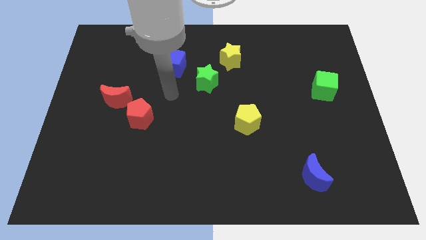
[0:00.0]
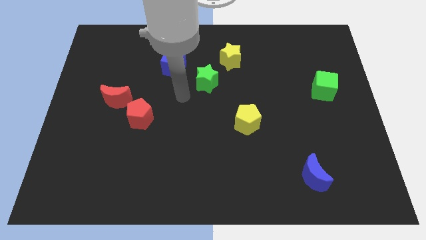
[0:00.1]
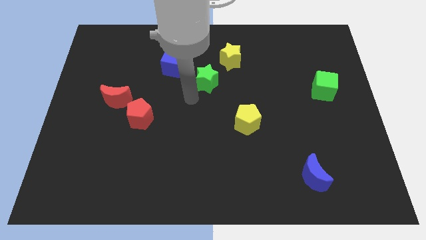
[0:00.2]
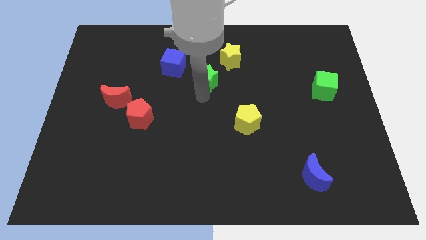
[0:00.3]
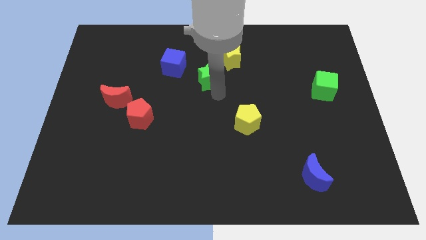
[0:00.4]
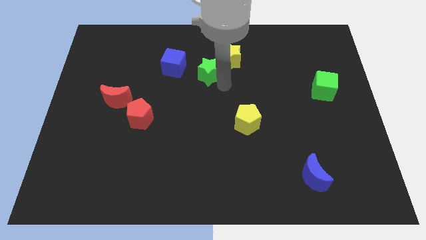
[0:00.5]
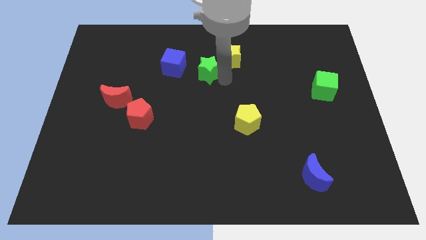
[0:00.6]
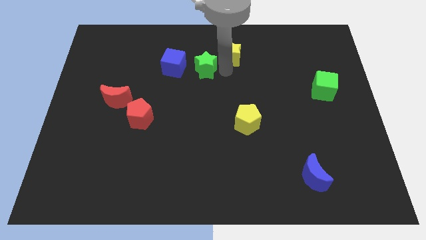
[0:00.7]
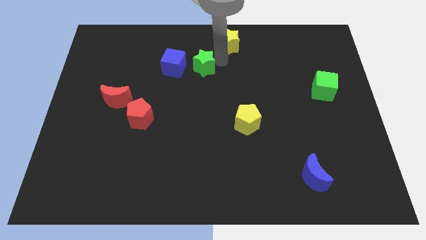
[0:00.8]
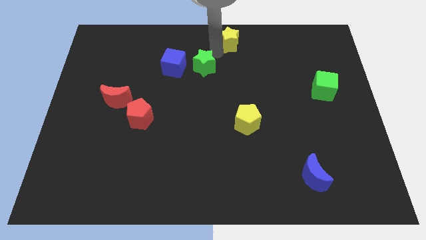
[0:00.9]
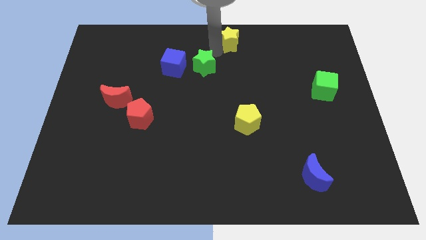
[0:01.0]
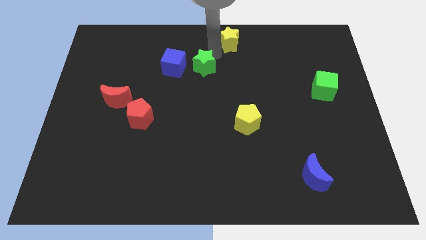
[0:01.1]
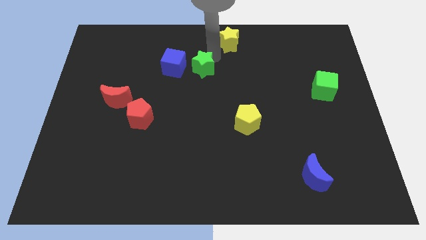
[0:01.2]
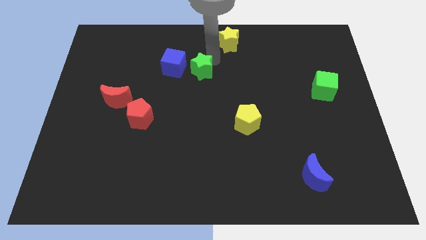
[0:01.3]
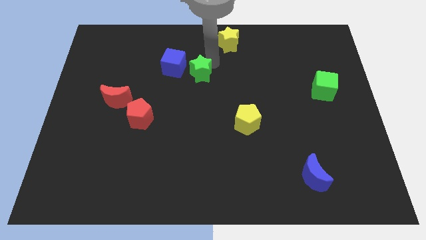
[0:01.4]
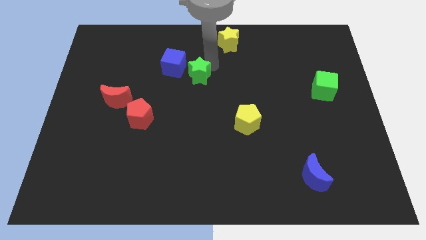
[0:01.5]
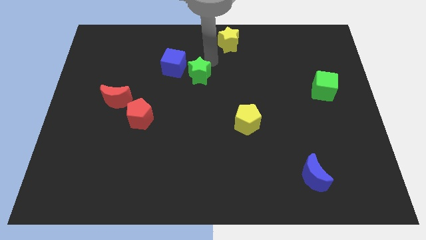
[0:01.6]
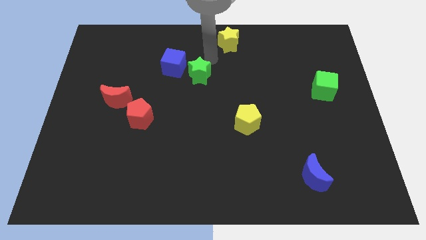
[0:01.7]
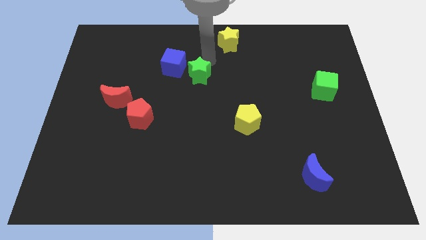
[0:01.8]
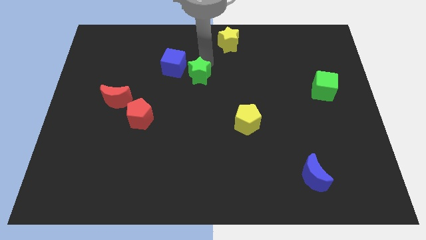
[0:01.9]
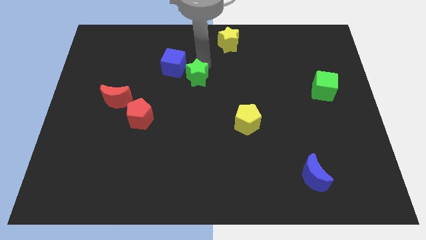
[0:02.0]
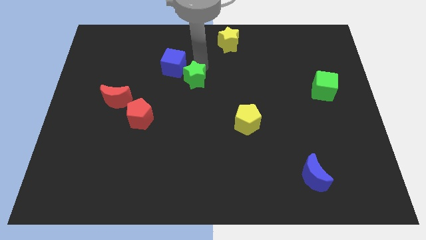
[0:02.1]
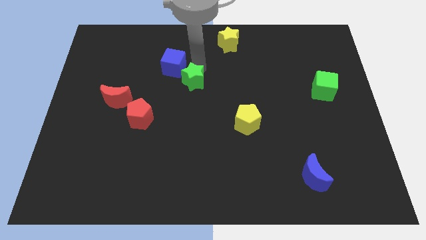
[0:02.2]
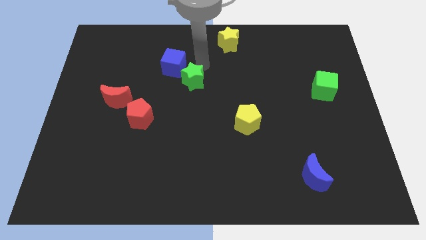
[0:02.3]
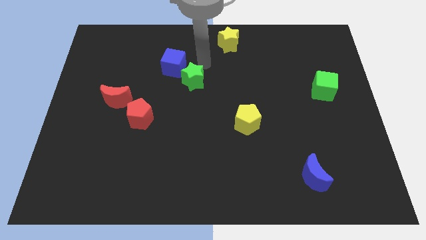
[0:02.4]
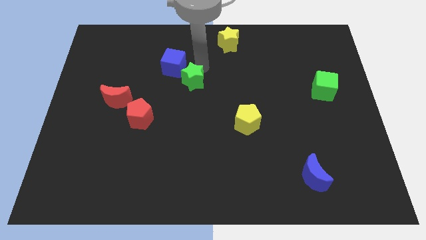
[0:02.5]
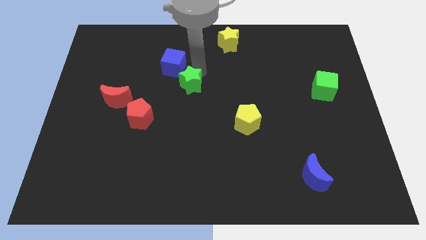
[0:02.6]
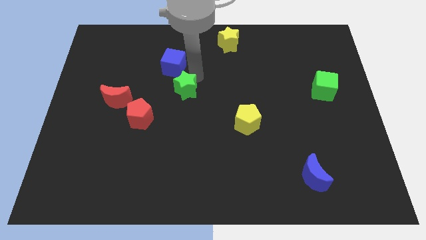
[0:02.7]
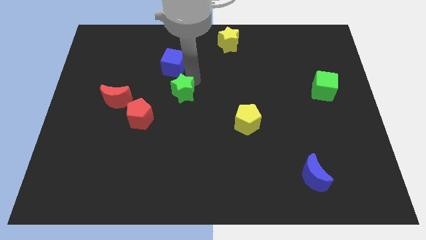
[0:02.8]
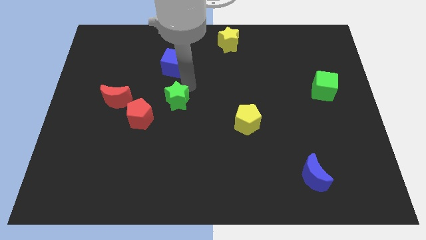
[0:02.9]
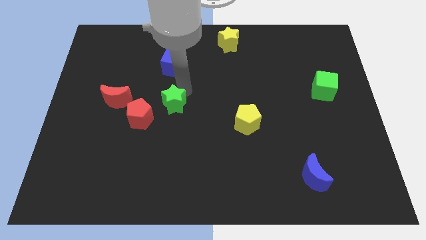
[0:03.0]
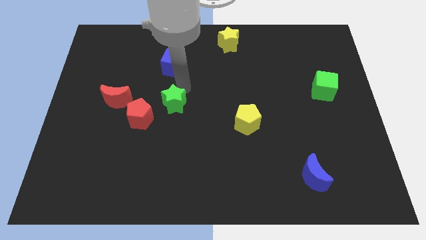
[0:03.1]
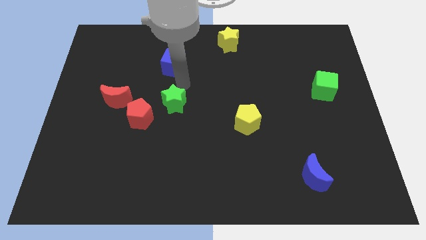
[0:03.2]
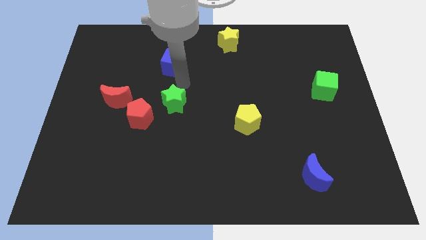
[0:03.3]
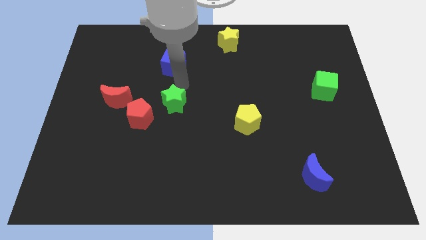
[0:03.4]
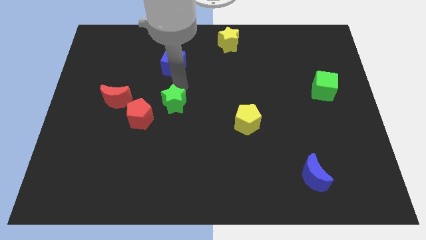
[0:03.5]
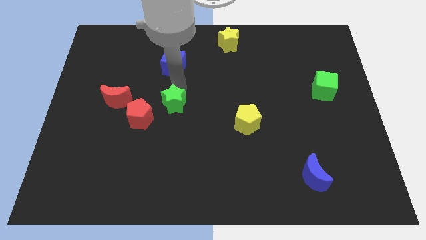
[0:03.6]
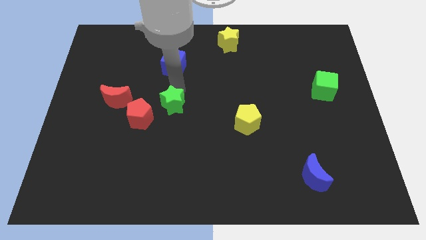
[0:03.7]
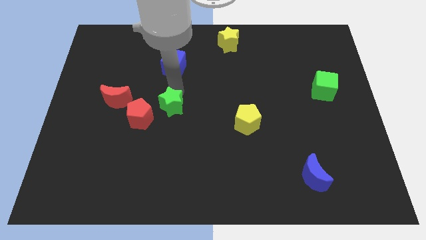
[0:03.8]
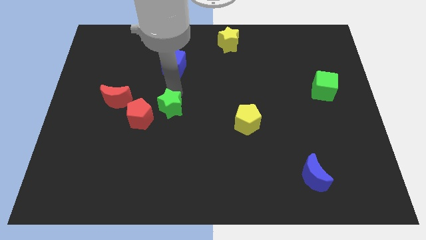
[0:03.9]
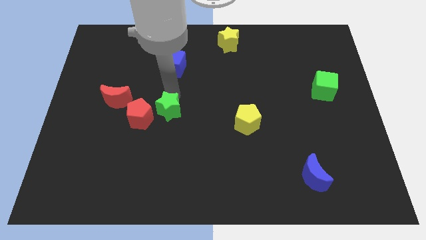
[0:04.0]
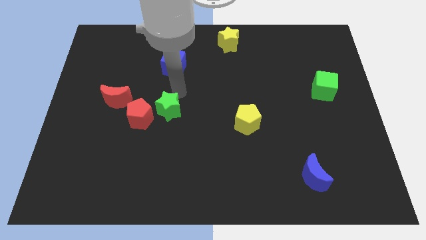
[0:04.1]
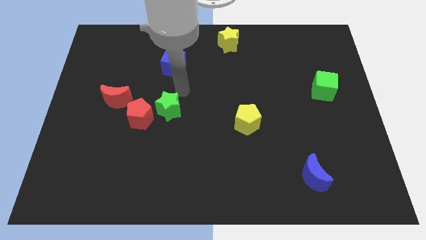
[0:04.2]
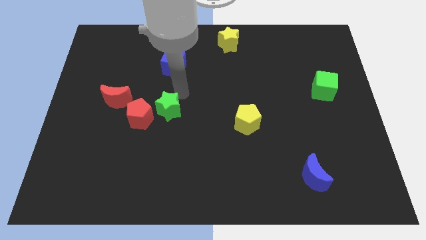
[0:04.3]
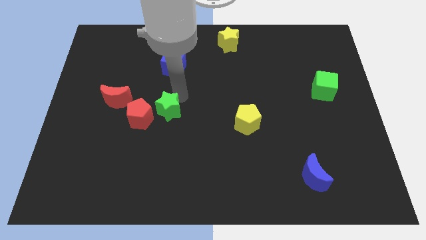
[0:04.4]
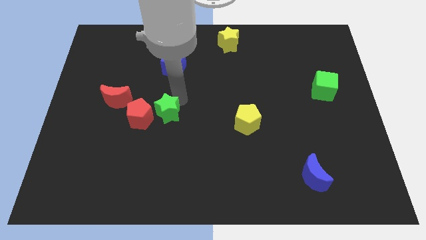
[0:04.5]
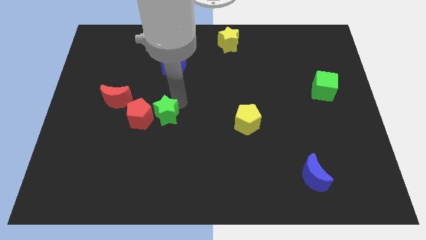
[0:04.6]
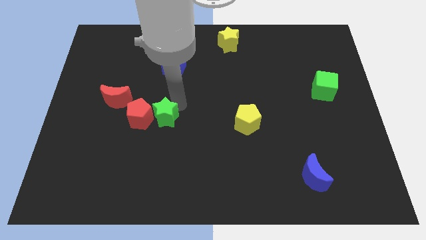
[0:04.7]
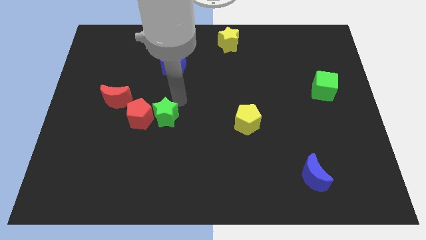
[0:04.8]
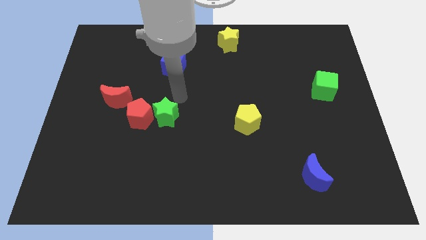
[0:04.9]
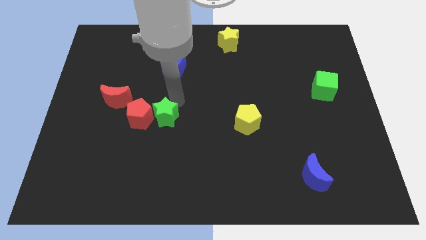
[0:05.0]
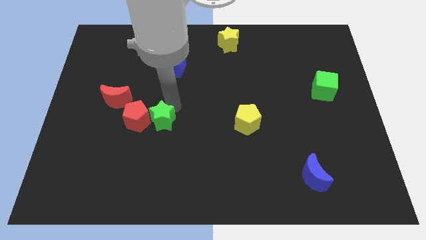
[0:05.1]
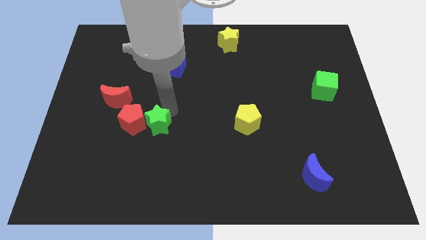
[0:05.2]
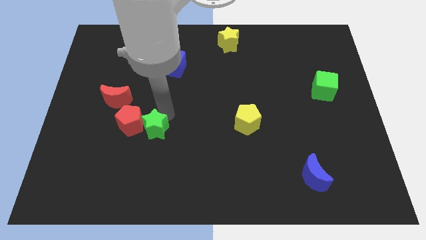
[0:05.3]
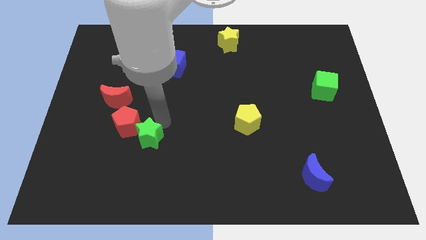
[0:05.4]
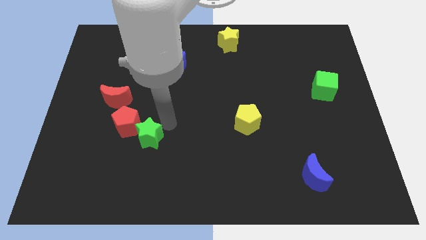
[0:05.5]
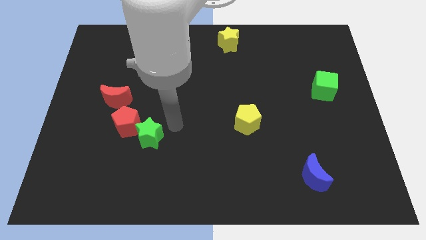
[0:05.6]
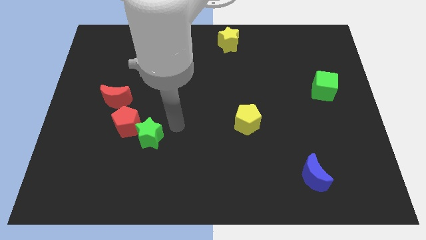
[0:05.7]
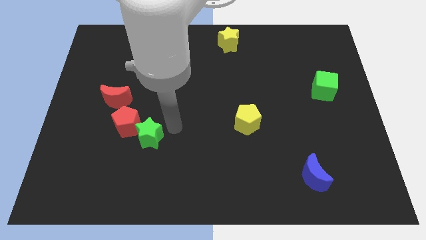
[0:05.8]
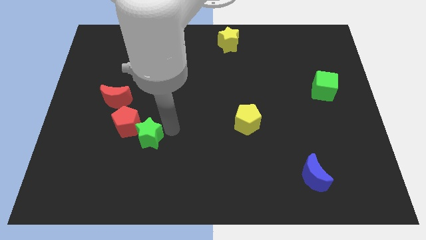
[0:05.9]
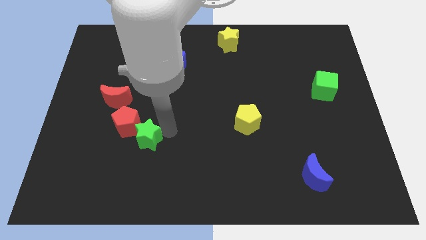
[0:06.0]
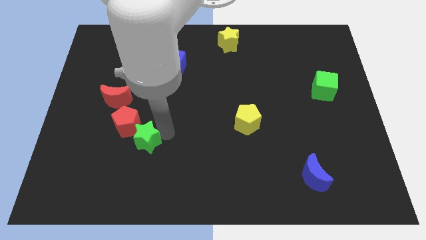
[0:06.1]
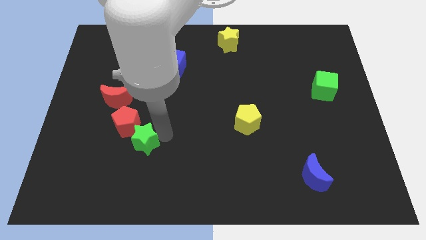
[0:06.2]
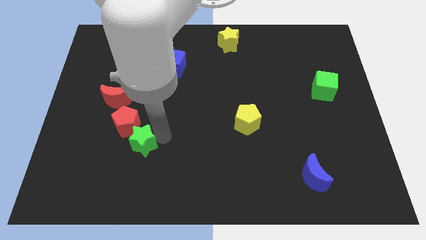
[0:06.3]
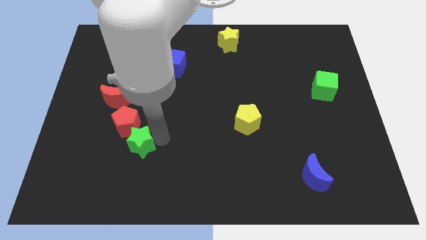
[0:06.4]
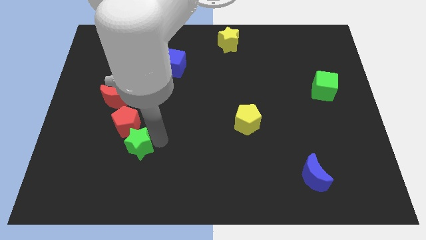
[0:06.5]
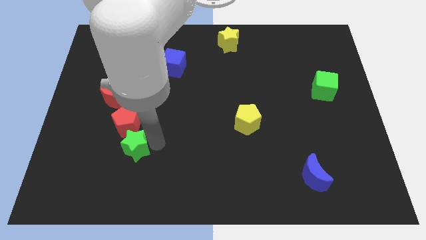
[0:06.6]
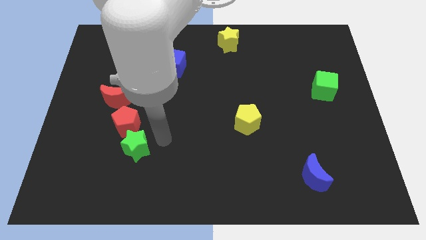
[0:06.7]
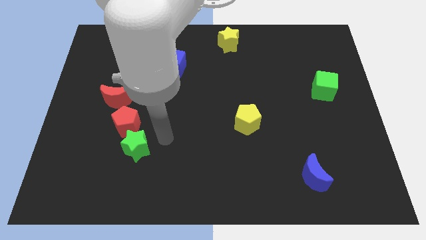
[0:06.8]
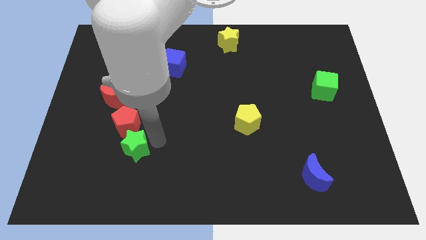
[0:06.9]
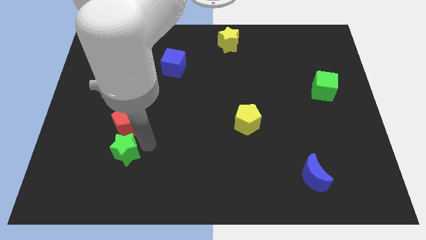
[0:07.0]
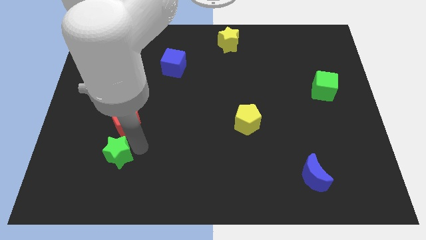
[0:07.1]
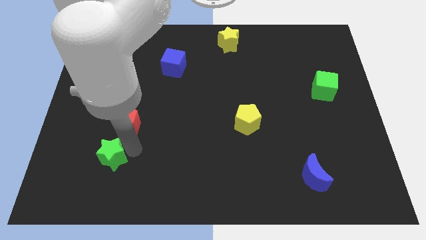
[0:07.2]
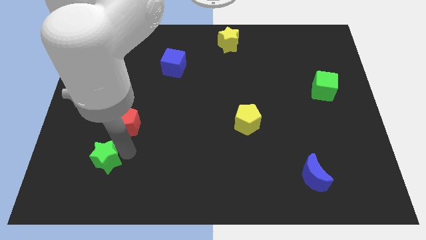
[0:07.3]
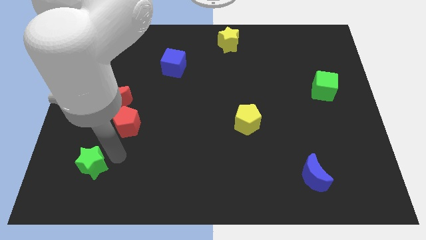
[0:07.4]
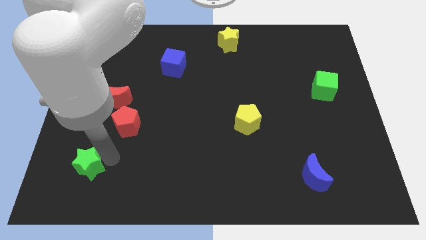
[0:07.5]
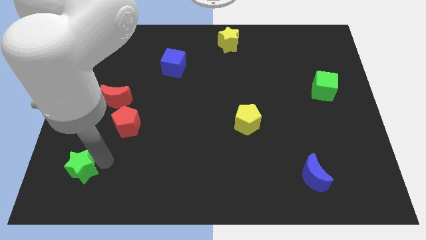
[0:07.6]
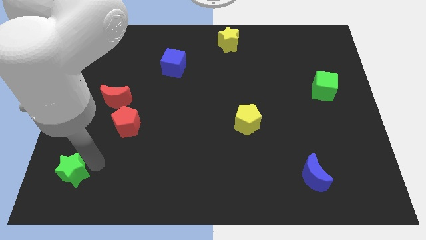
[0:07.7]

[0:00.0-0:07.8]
put the green star to the bottom left
